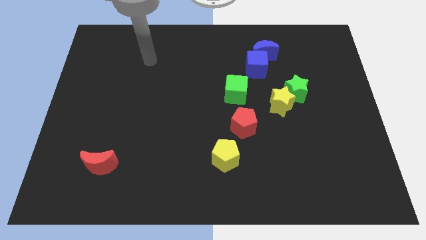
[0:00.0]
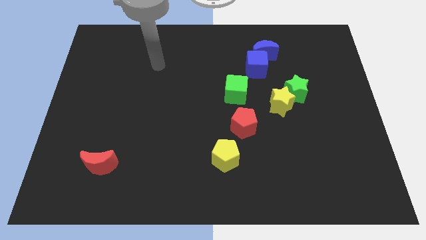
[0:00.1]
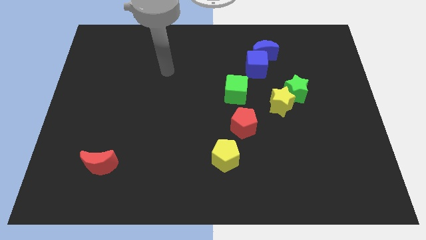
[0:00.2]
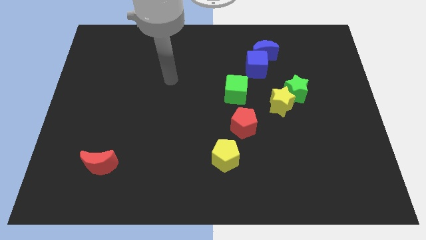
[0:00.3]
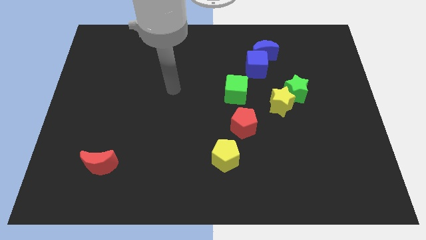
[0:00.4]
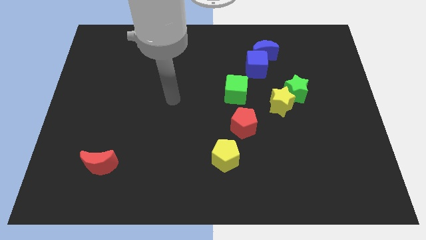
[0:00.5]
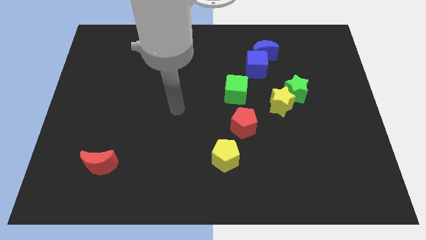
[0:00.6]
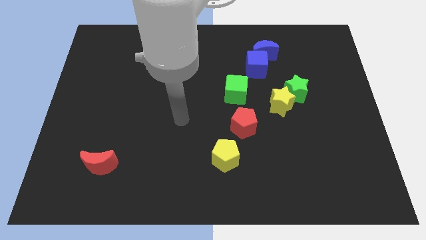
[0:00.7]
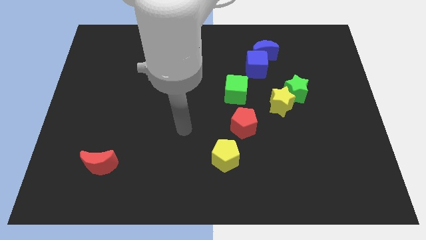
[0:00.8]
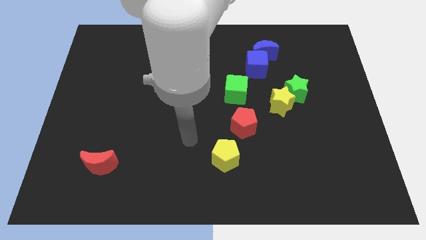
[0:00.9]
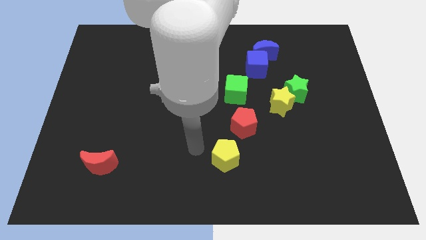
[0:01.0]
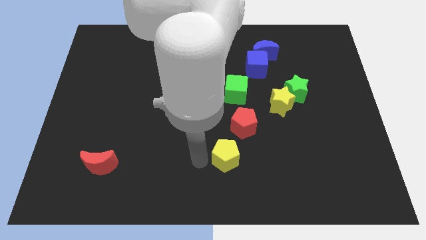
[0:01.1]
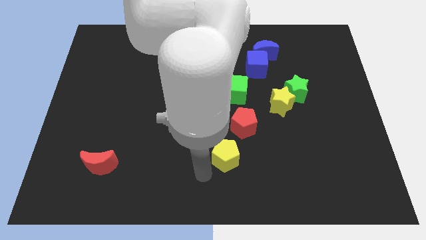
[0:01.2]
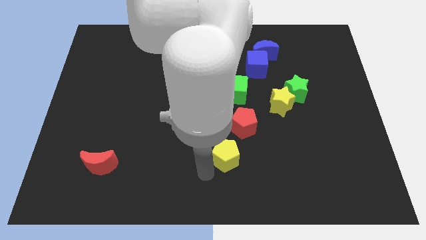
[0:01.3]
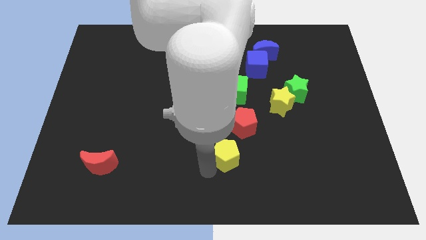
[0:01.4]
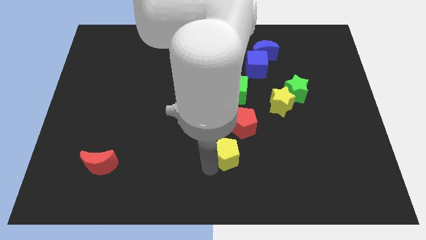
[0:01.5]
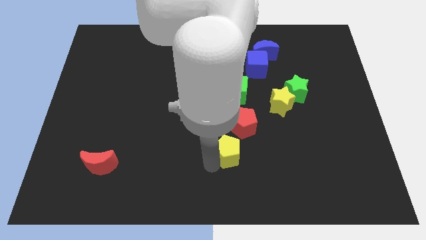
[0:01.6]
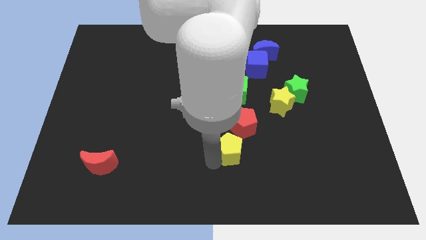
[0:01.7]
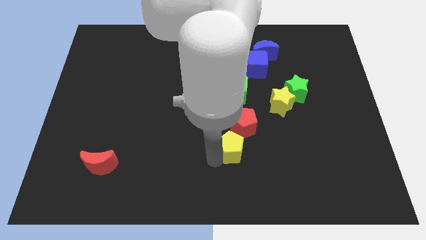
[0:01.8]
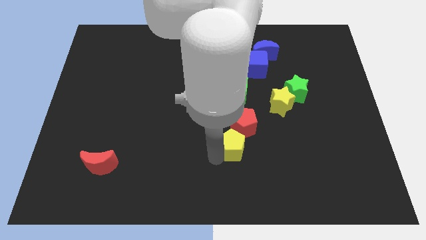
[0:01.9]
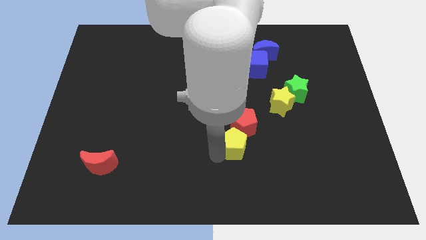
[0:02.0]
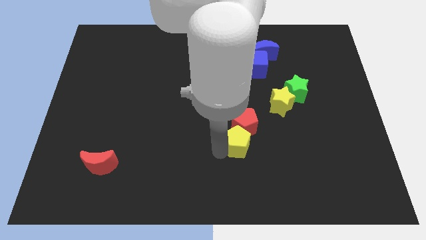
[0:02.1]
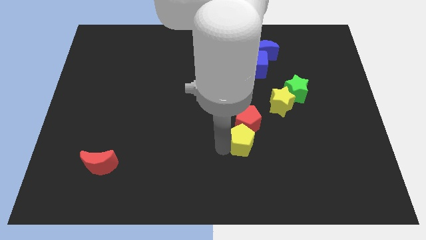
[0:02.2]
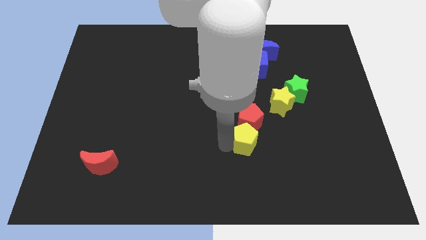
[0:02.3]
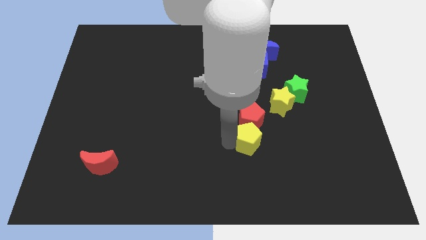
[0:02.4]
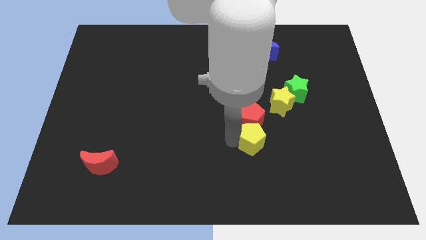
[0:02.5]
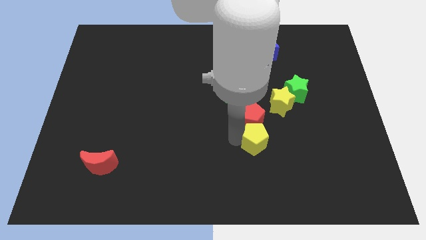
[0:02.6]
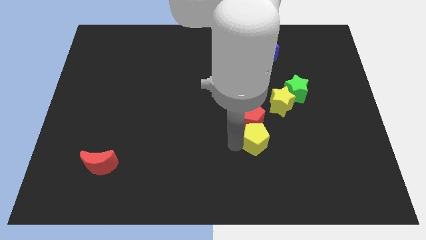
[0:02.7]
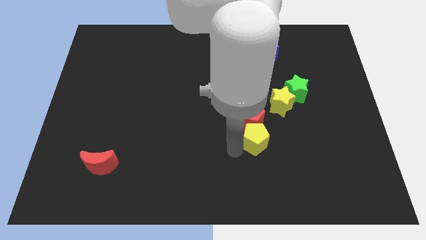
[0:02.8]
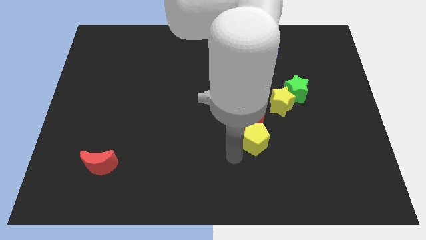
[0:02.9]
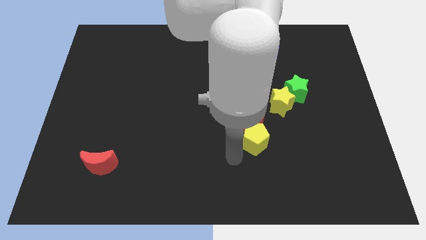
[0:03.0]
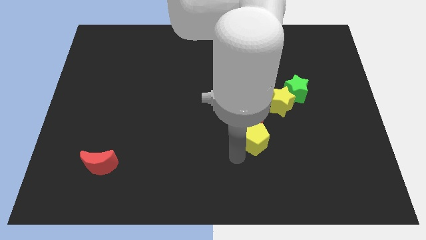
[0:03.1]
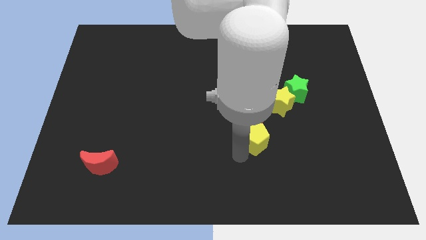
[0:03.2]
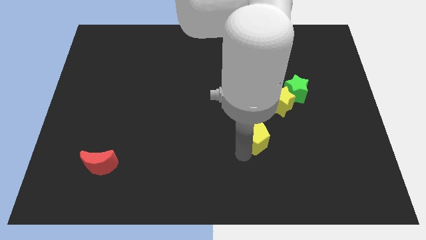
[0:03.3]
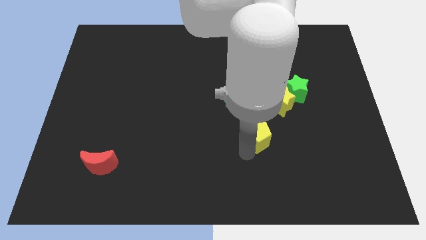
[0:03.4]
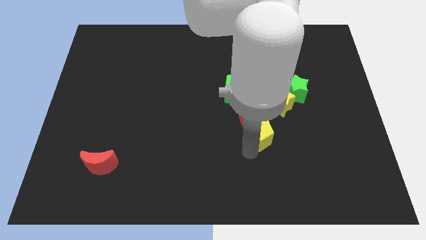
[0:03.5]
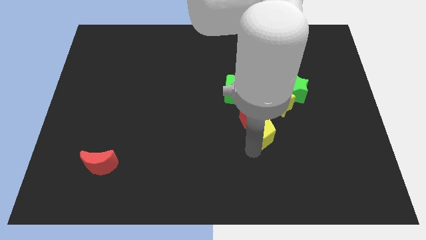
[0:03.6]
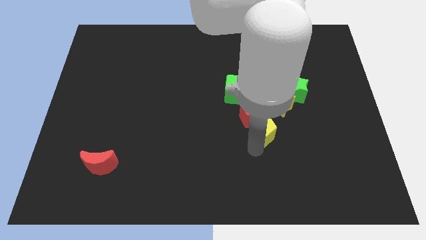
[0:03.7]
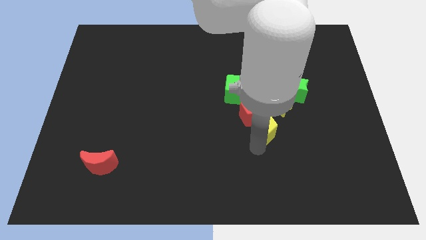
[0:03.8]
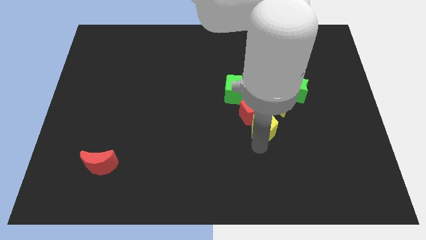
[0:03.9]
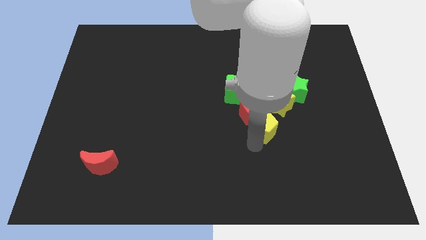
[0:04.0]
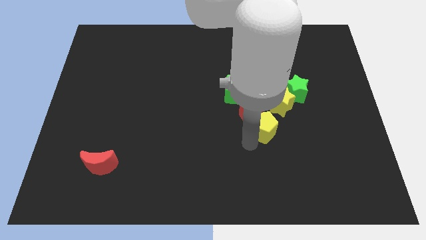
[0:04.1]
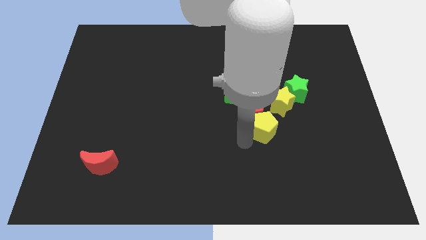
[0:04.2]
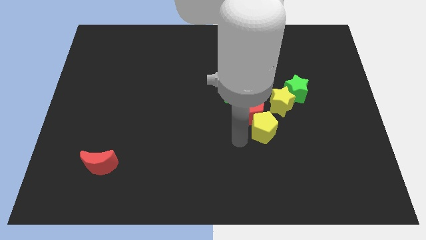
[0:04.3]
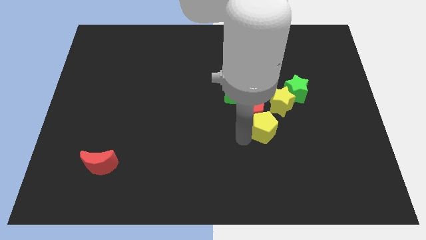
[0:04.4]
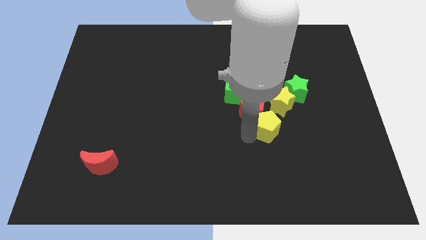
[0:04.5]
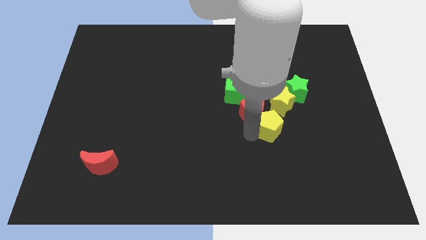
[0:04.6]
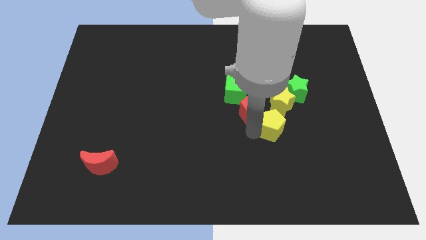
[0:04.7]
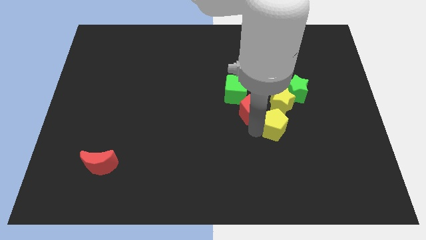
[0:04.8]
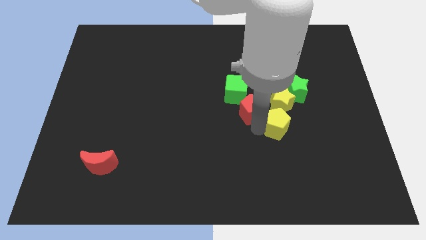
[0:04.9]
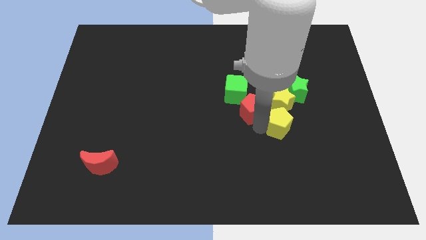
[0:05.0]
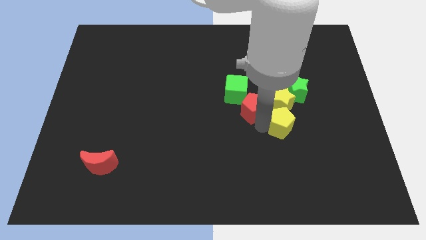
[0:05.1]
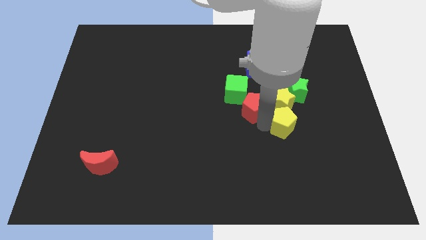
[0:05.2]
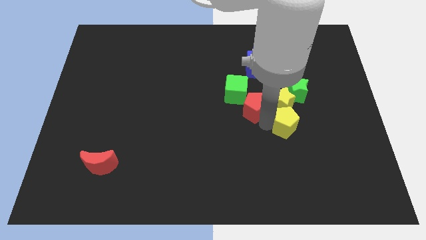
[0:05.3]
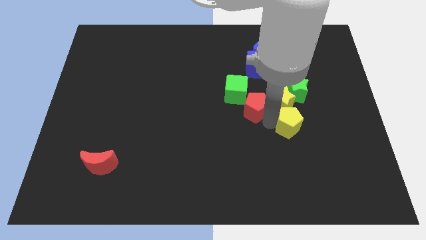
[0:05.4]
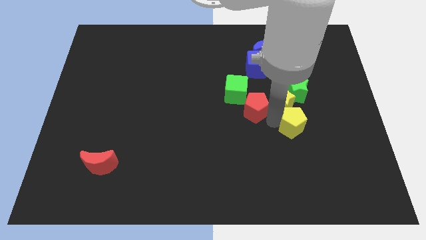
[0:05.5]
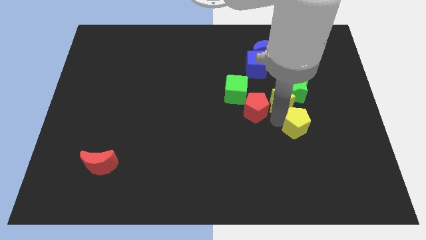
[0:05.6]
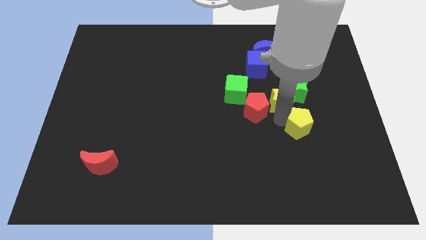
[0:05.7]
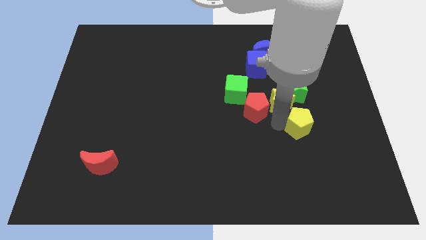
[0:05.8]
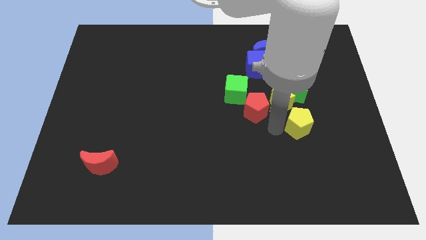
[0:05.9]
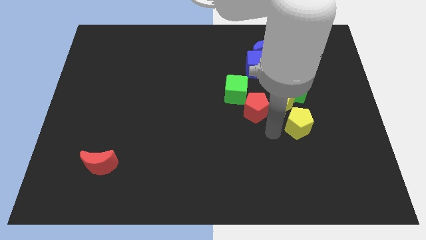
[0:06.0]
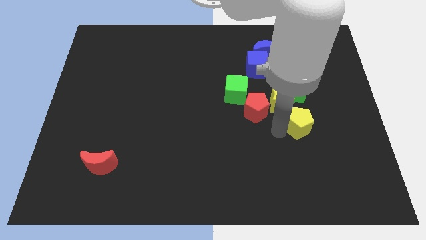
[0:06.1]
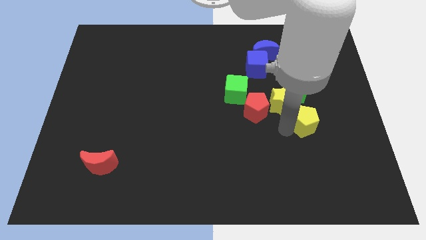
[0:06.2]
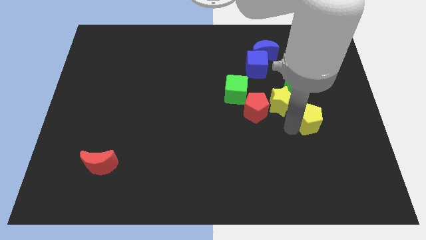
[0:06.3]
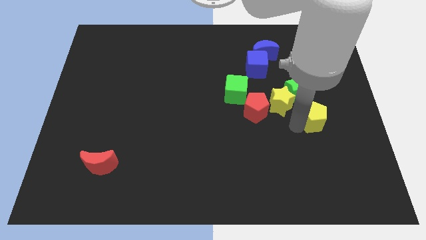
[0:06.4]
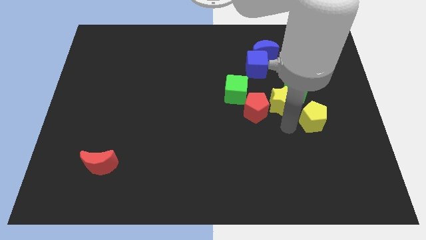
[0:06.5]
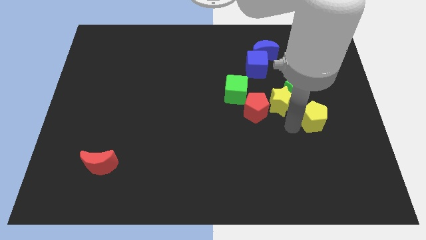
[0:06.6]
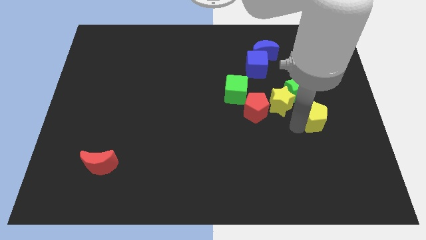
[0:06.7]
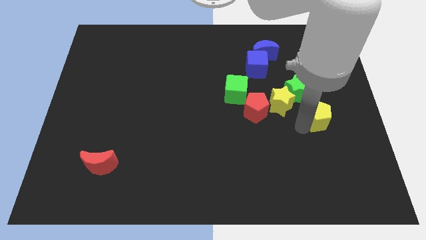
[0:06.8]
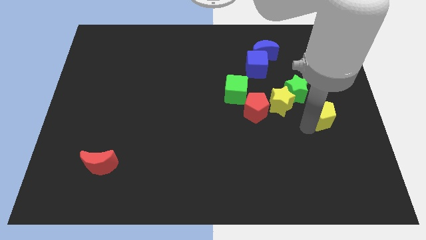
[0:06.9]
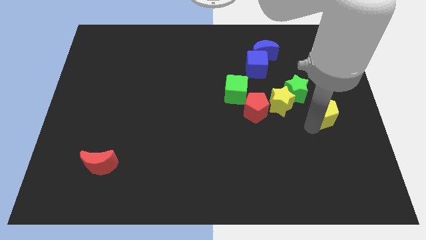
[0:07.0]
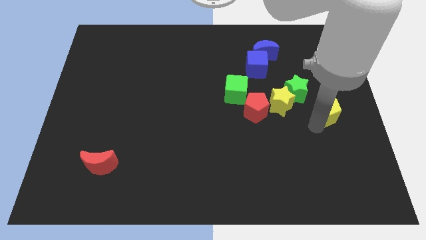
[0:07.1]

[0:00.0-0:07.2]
put the yellow pentagon to the right side of the board
